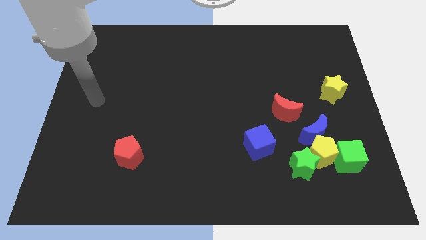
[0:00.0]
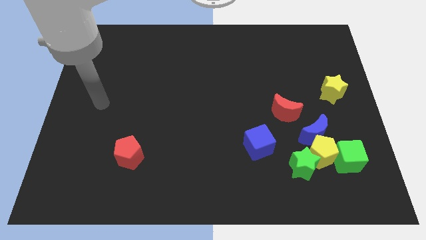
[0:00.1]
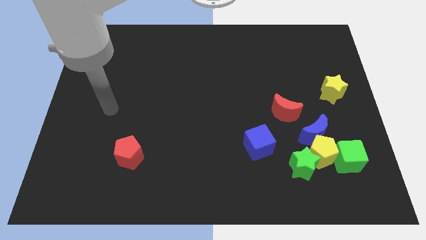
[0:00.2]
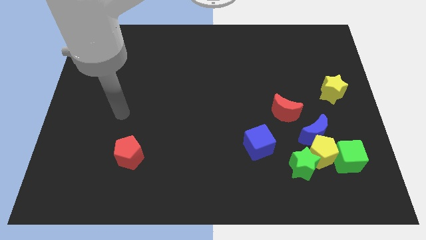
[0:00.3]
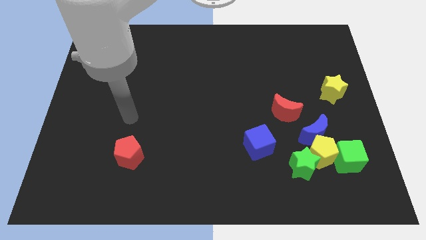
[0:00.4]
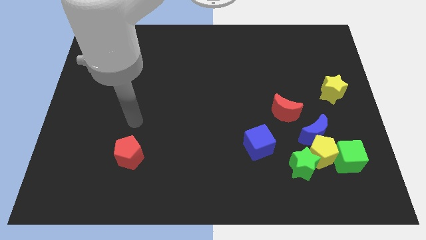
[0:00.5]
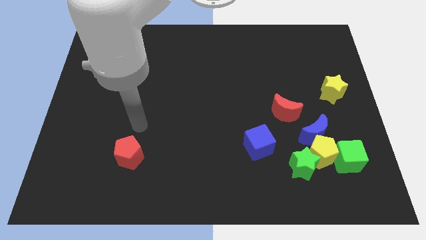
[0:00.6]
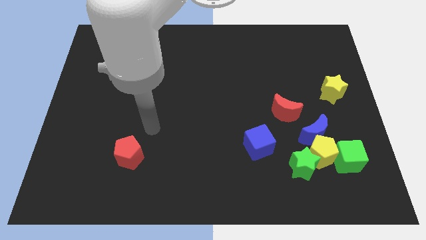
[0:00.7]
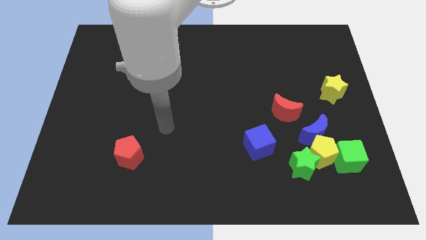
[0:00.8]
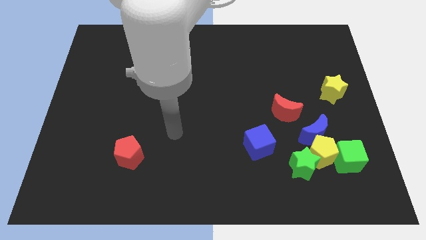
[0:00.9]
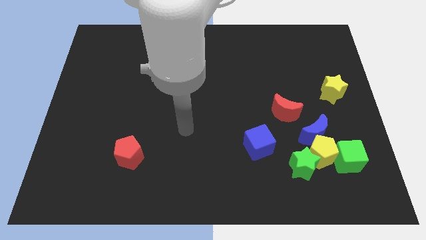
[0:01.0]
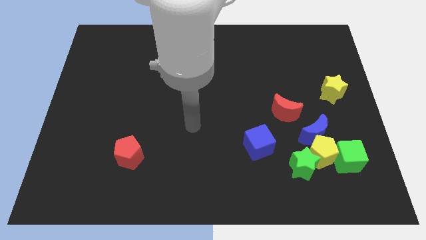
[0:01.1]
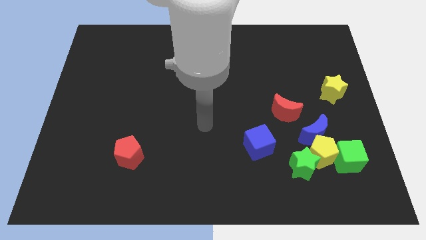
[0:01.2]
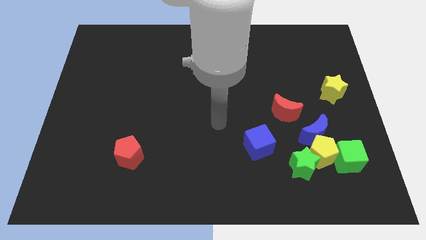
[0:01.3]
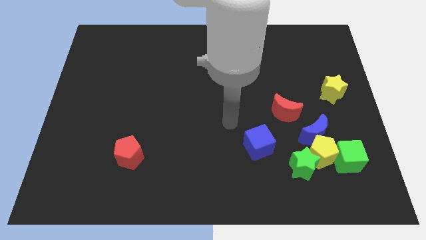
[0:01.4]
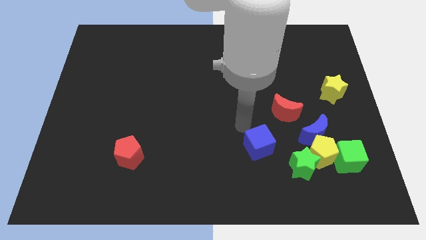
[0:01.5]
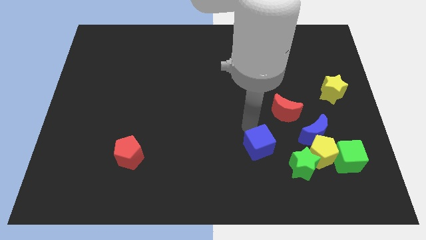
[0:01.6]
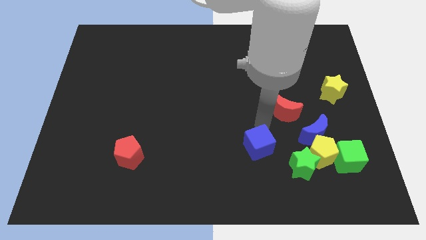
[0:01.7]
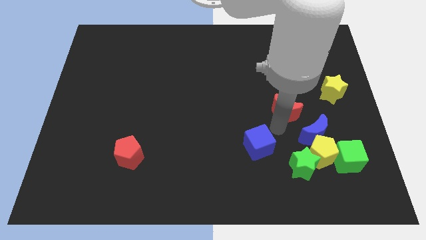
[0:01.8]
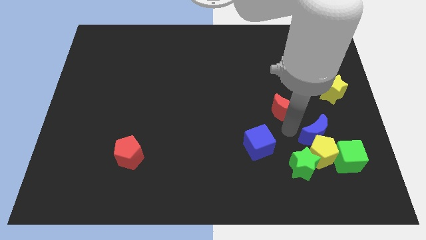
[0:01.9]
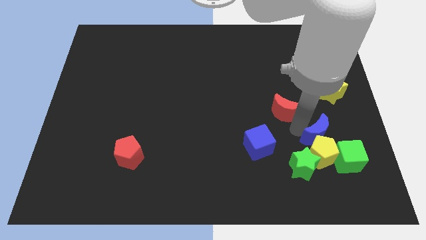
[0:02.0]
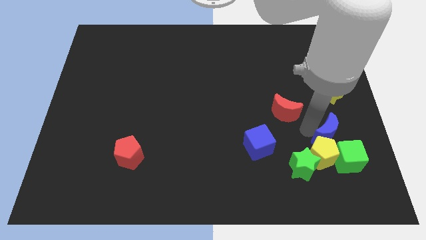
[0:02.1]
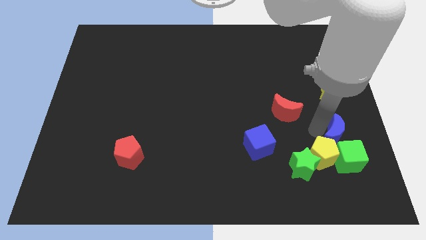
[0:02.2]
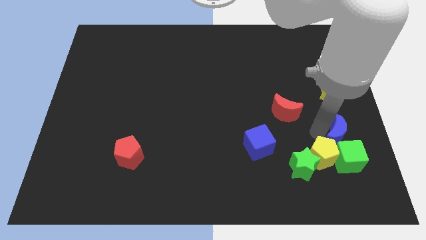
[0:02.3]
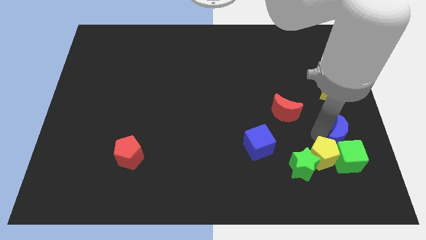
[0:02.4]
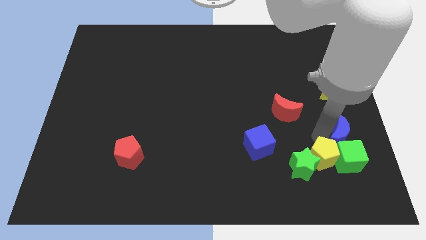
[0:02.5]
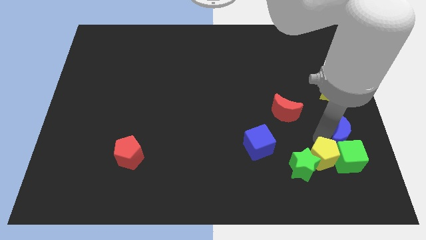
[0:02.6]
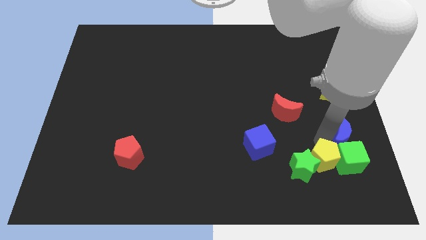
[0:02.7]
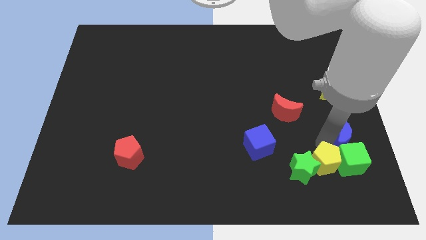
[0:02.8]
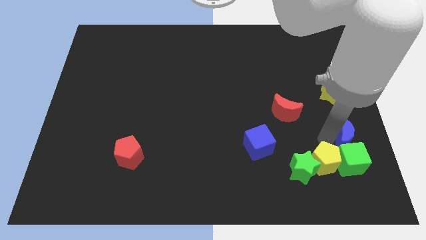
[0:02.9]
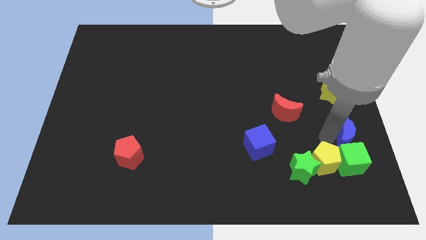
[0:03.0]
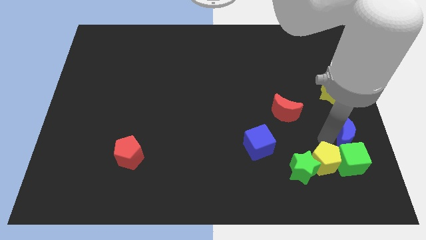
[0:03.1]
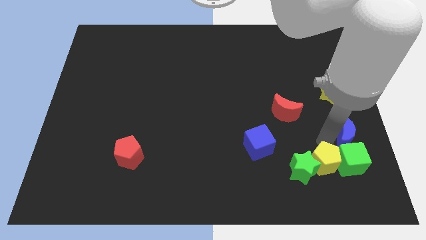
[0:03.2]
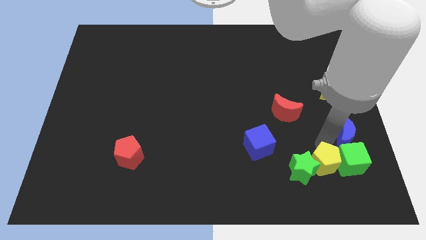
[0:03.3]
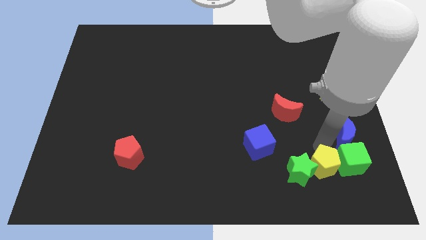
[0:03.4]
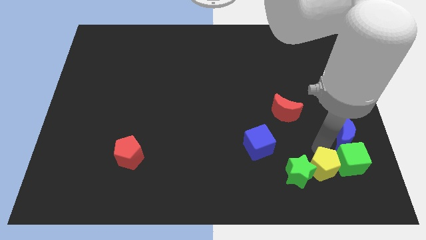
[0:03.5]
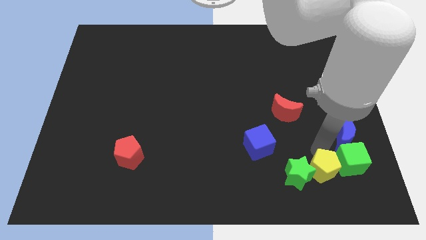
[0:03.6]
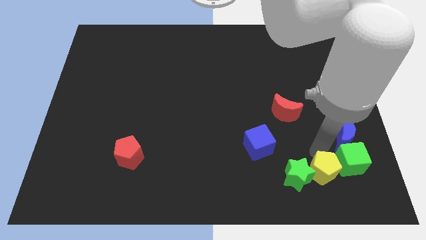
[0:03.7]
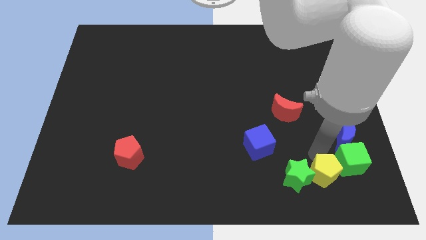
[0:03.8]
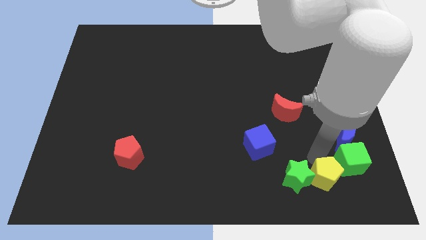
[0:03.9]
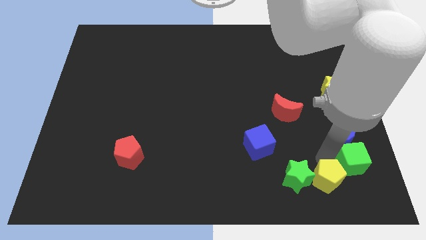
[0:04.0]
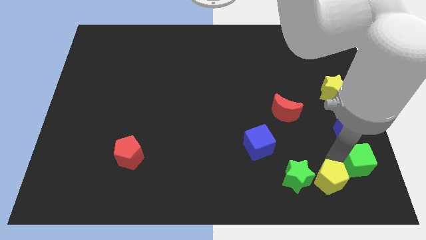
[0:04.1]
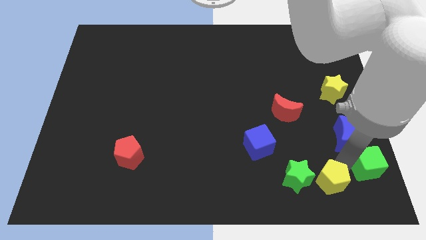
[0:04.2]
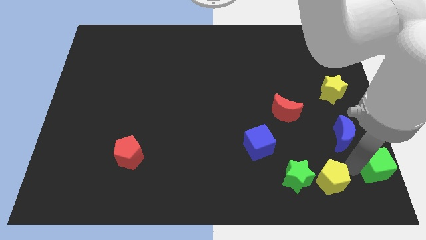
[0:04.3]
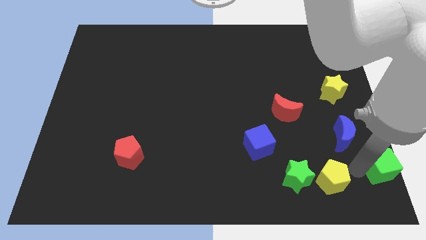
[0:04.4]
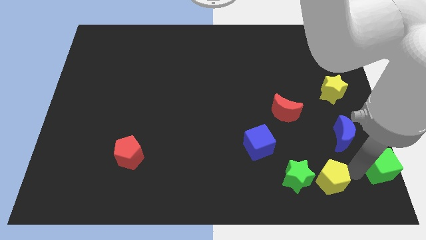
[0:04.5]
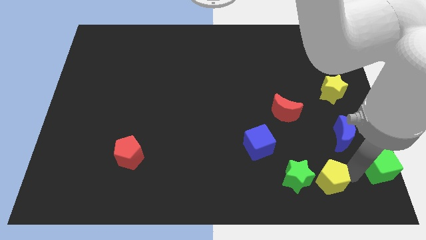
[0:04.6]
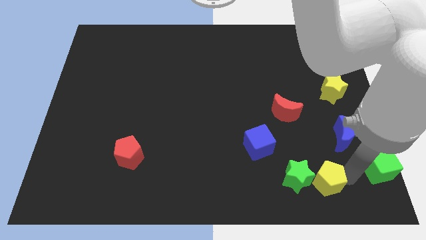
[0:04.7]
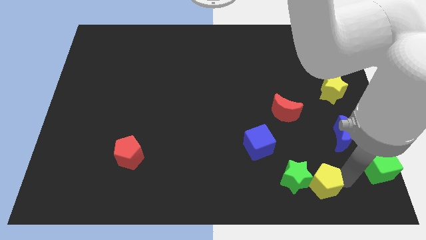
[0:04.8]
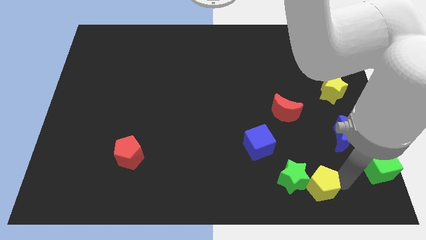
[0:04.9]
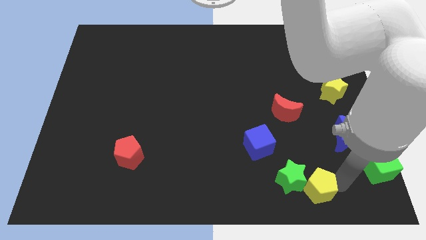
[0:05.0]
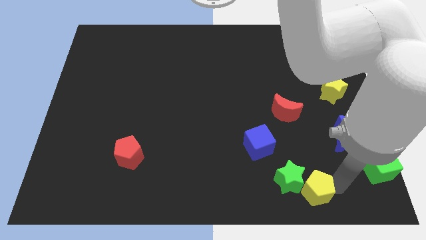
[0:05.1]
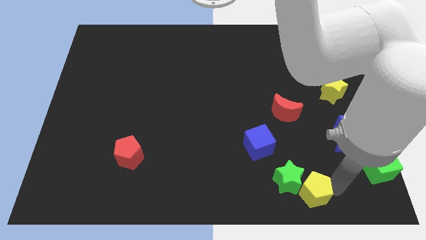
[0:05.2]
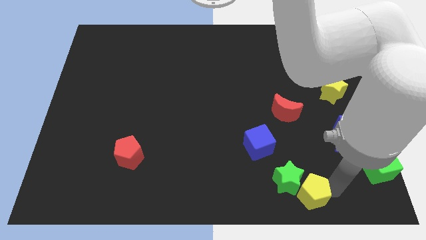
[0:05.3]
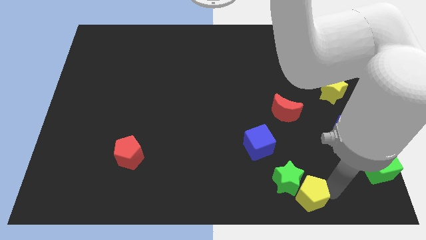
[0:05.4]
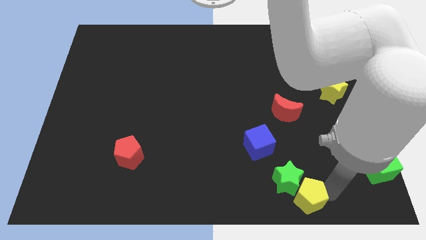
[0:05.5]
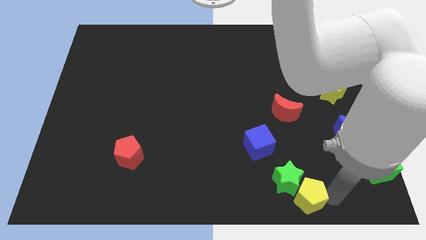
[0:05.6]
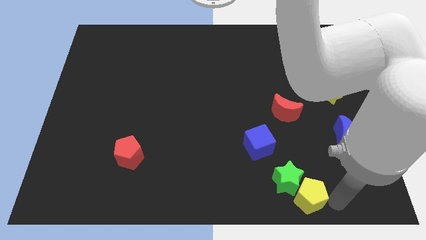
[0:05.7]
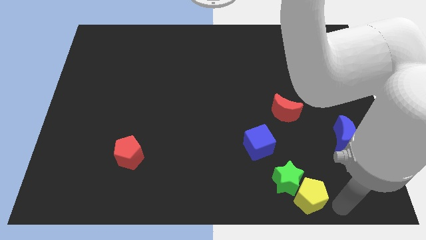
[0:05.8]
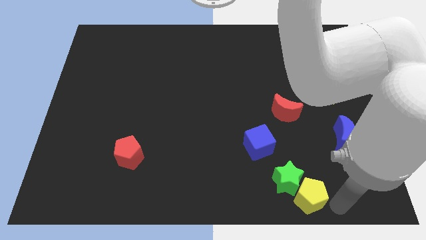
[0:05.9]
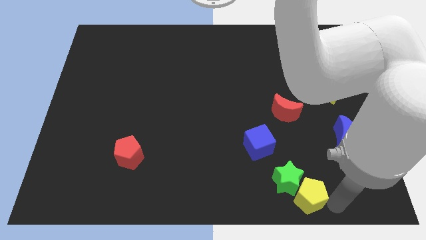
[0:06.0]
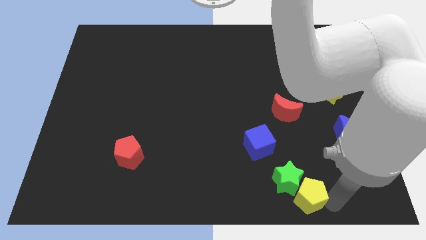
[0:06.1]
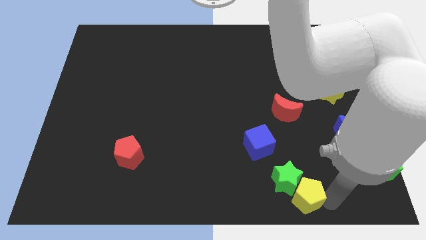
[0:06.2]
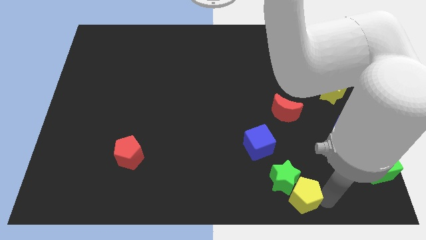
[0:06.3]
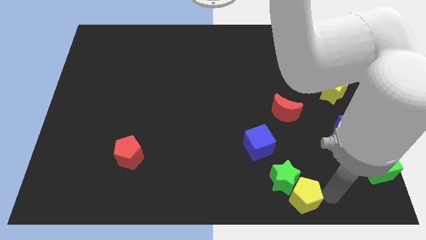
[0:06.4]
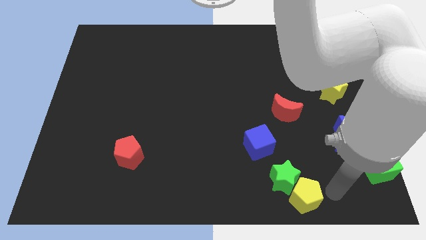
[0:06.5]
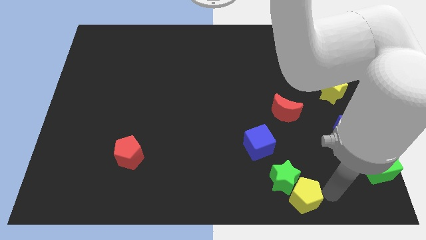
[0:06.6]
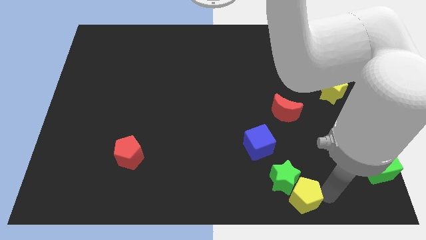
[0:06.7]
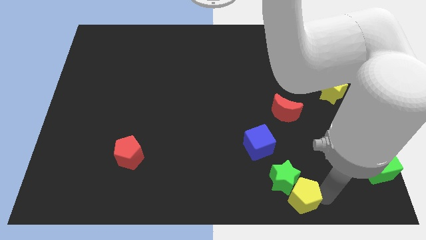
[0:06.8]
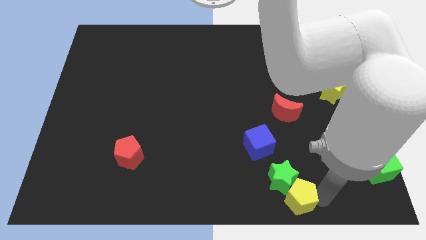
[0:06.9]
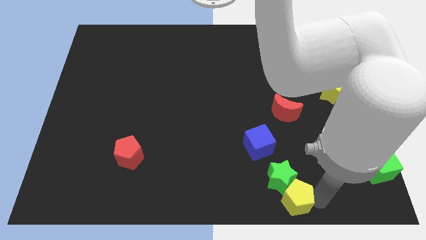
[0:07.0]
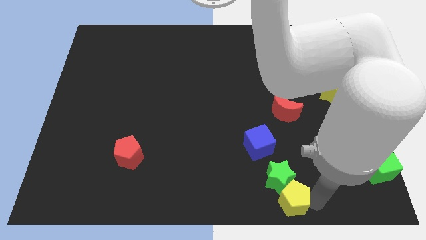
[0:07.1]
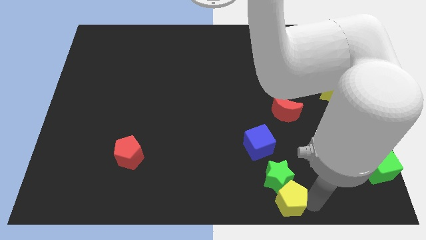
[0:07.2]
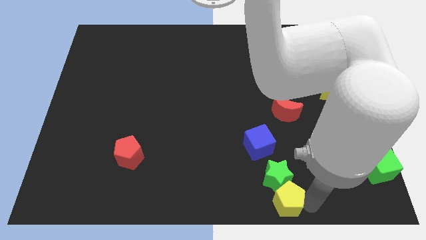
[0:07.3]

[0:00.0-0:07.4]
slide the yellow pentagon to the bottom side
